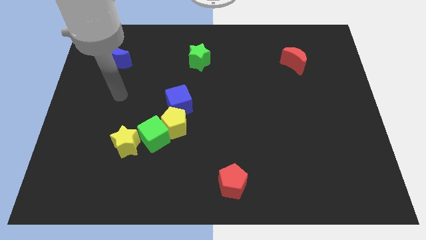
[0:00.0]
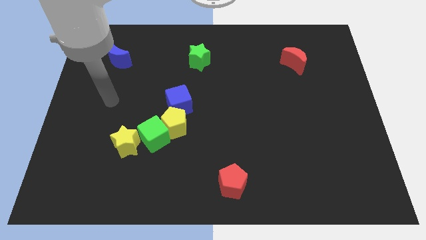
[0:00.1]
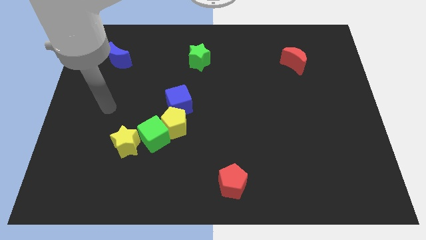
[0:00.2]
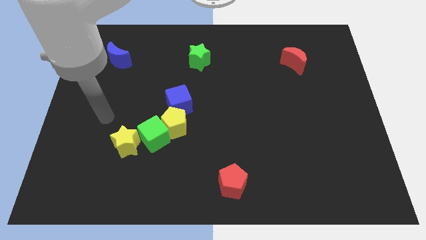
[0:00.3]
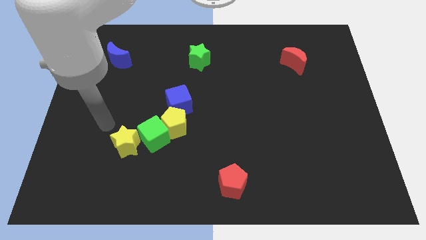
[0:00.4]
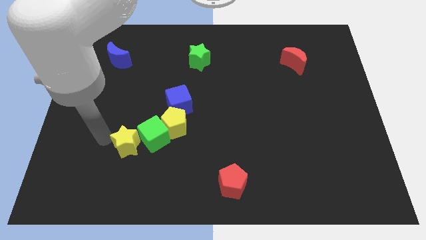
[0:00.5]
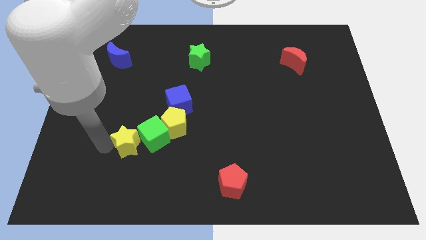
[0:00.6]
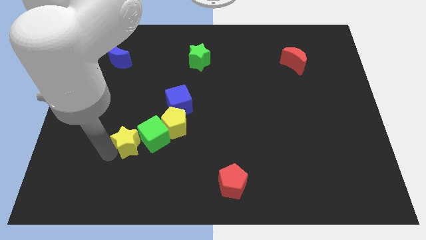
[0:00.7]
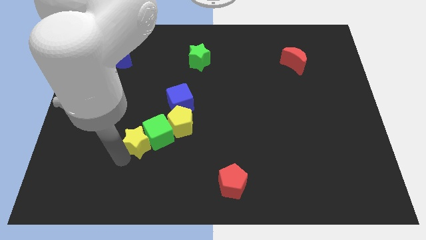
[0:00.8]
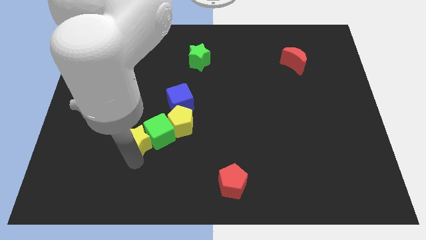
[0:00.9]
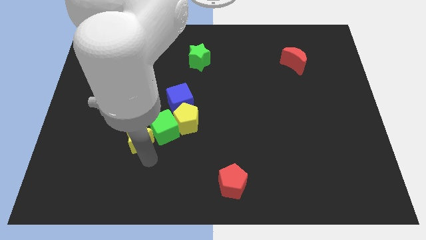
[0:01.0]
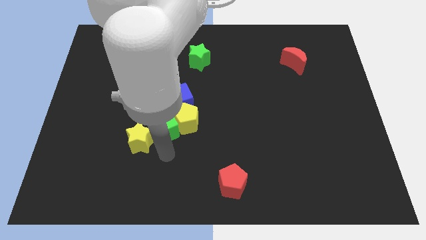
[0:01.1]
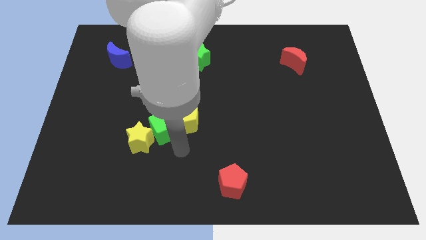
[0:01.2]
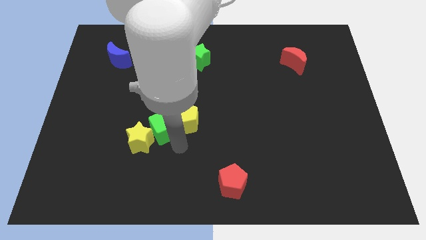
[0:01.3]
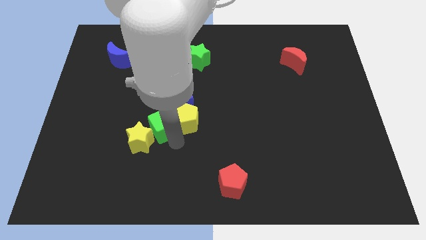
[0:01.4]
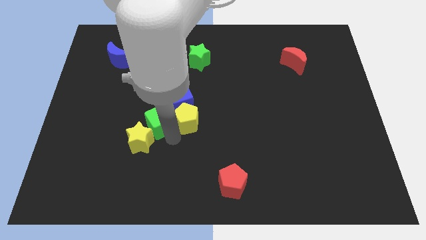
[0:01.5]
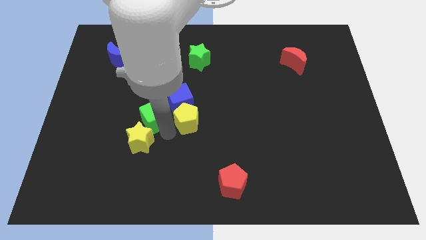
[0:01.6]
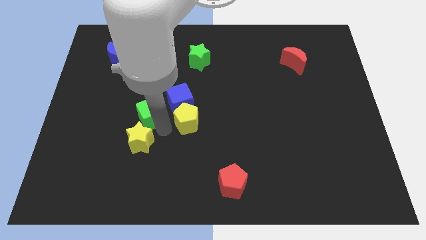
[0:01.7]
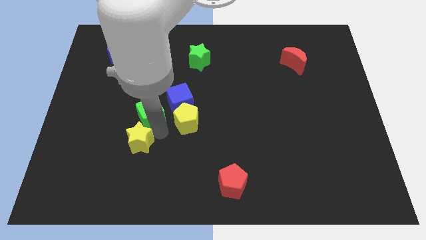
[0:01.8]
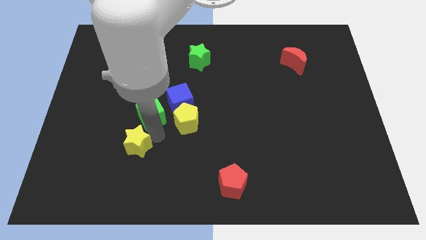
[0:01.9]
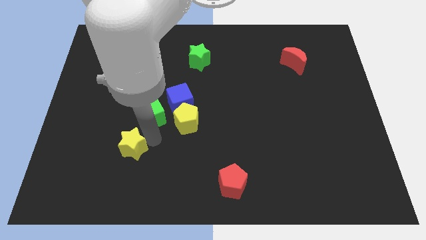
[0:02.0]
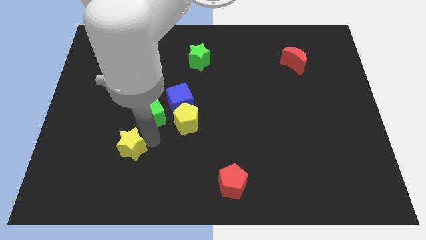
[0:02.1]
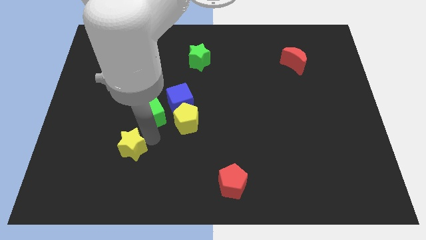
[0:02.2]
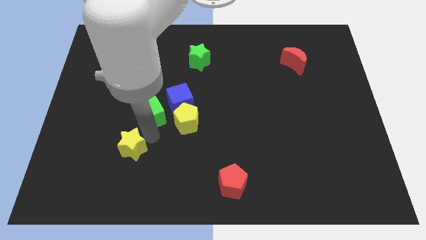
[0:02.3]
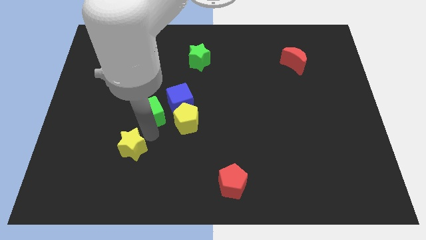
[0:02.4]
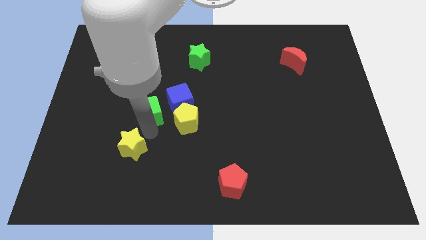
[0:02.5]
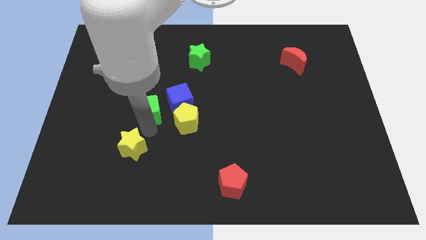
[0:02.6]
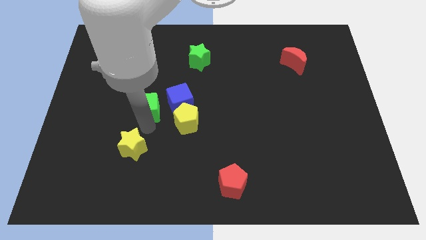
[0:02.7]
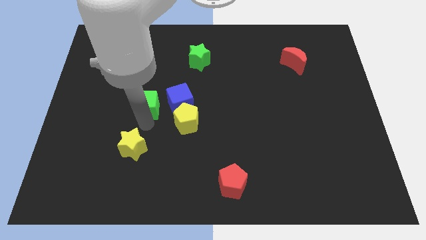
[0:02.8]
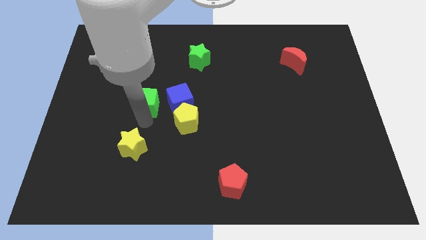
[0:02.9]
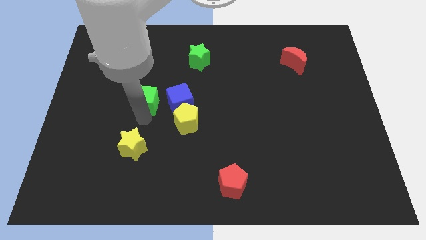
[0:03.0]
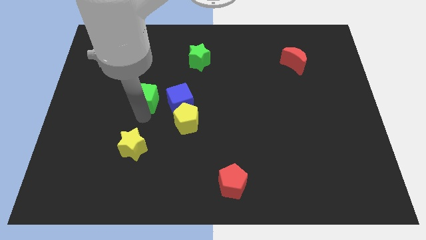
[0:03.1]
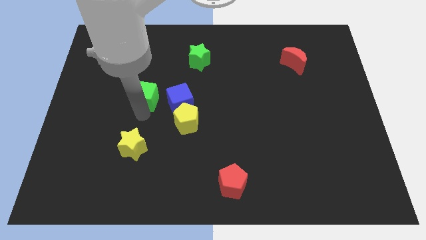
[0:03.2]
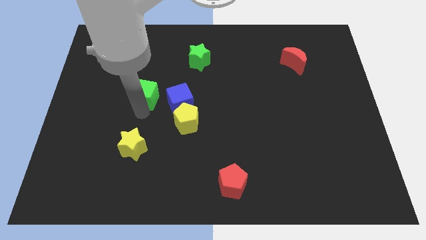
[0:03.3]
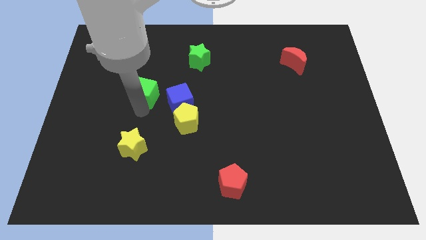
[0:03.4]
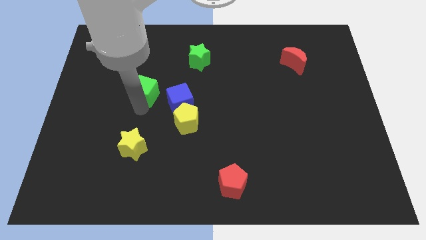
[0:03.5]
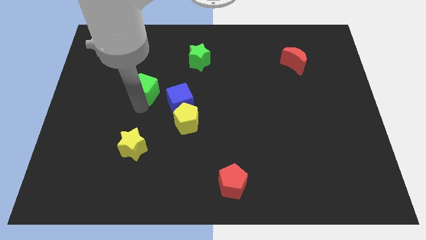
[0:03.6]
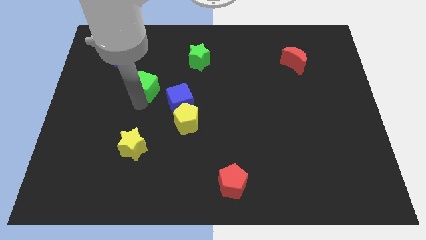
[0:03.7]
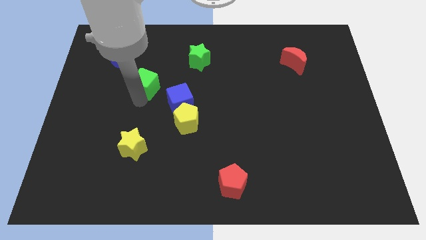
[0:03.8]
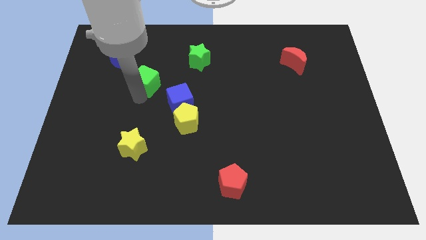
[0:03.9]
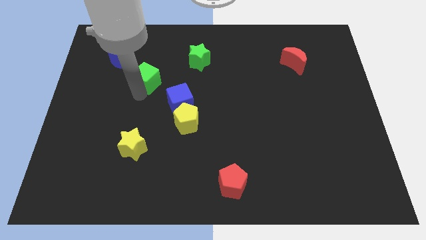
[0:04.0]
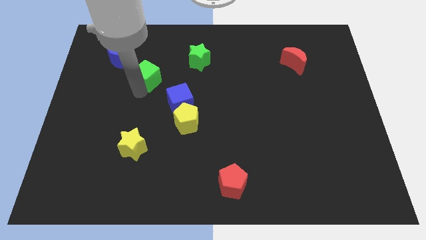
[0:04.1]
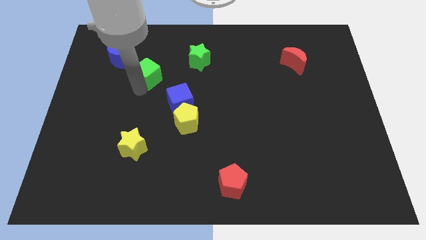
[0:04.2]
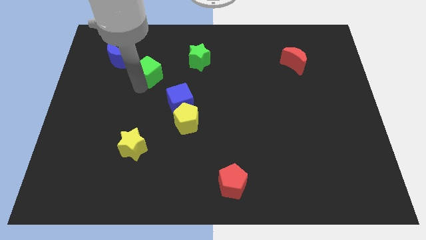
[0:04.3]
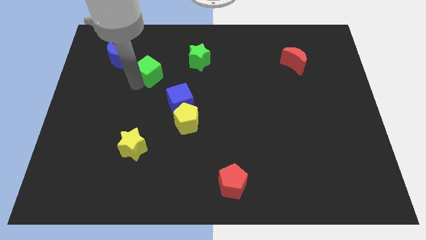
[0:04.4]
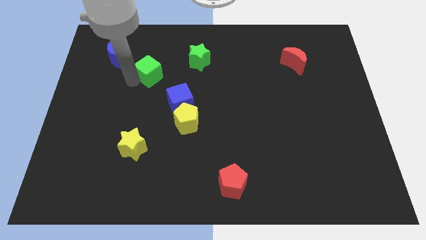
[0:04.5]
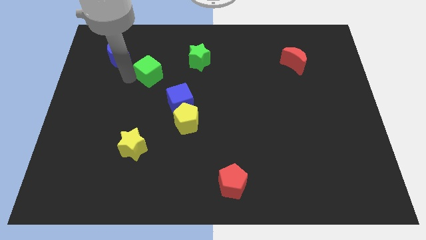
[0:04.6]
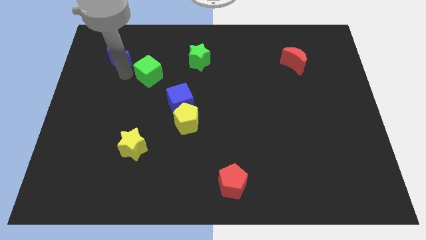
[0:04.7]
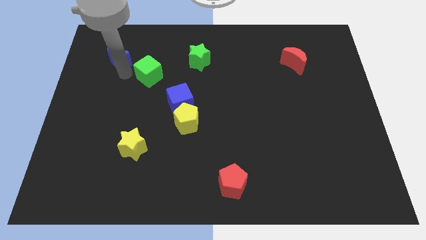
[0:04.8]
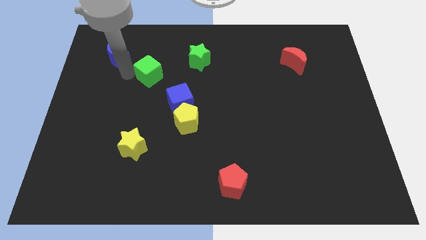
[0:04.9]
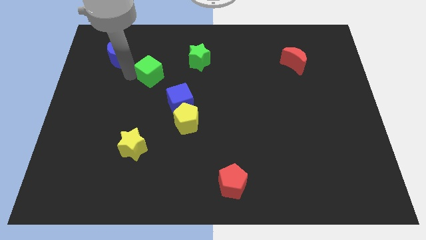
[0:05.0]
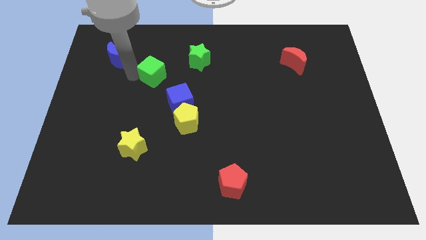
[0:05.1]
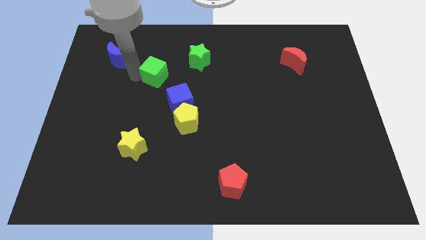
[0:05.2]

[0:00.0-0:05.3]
put the green cube to the bottom left of the green star

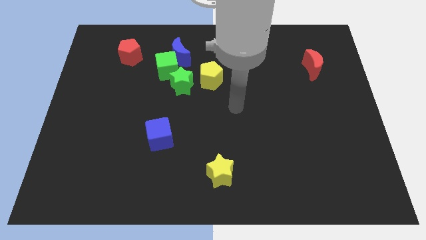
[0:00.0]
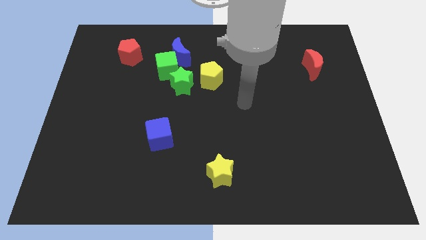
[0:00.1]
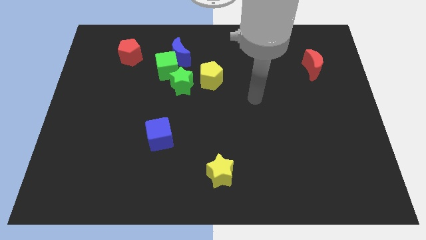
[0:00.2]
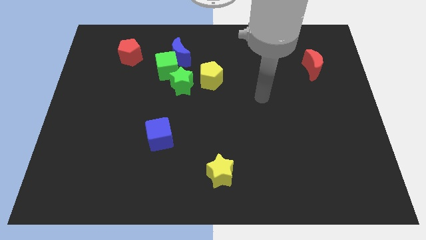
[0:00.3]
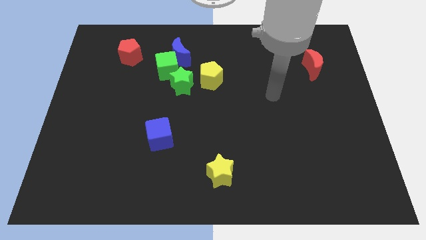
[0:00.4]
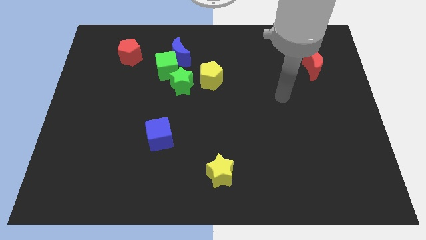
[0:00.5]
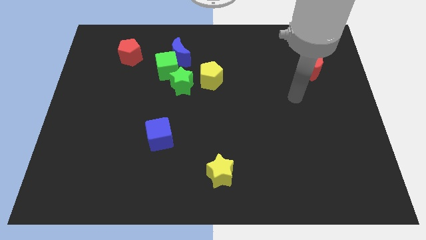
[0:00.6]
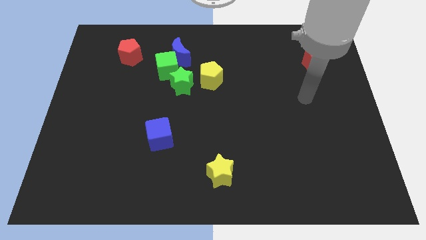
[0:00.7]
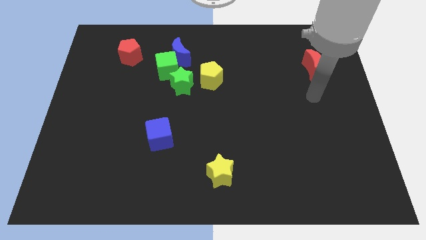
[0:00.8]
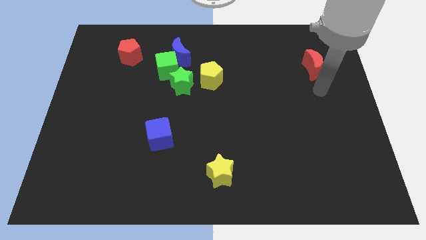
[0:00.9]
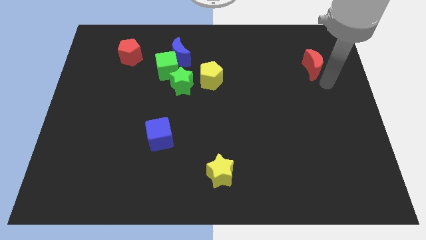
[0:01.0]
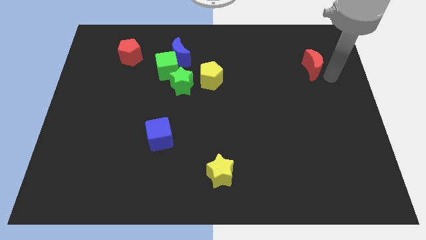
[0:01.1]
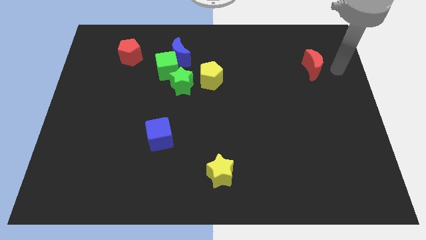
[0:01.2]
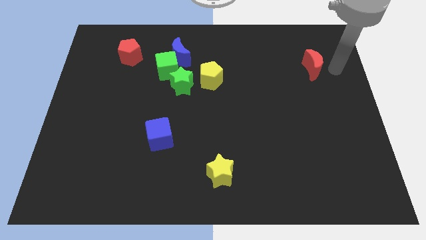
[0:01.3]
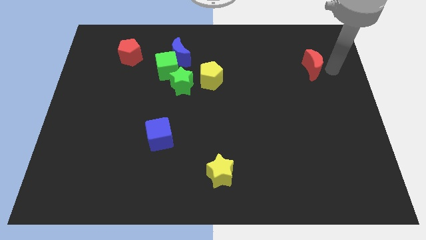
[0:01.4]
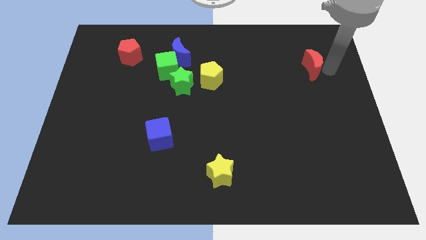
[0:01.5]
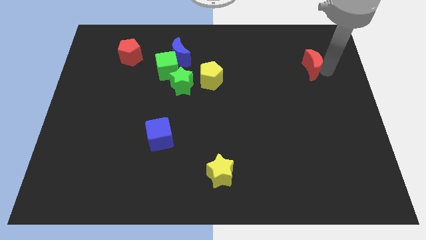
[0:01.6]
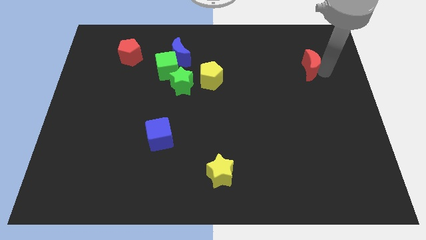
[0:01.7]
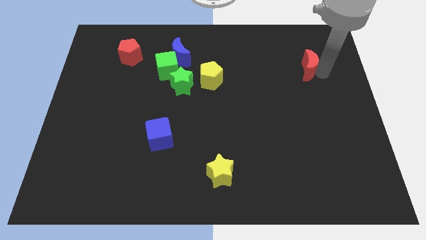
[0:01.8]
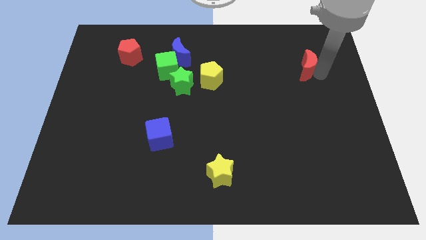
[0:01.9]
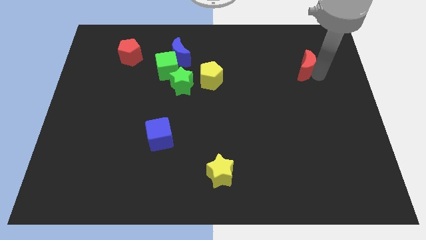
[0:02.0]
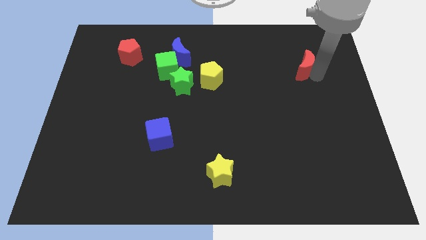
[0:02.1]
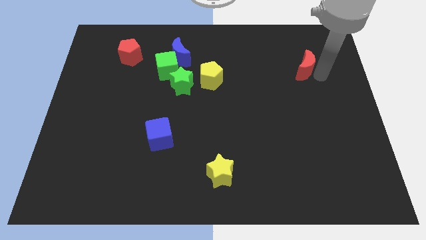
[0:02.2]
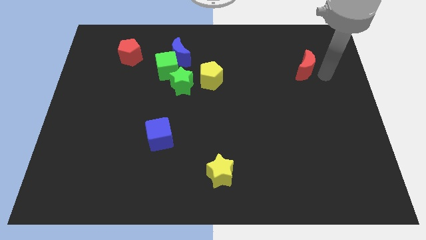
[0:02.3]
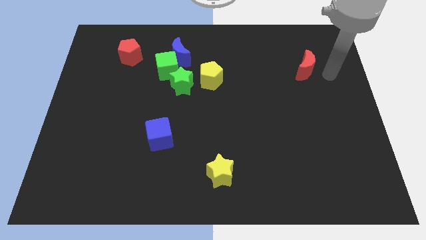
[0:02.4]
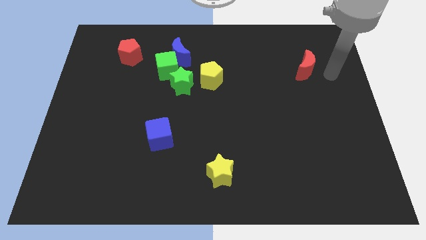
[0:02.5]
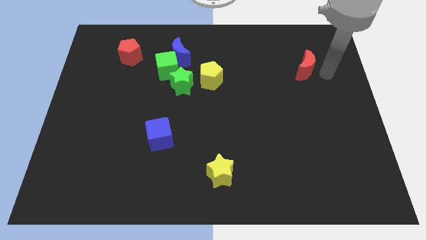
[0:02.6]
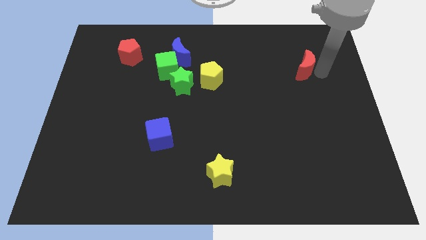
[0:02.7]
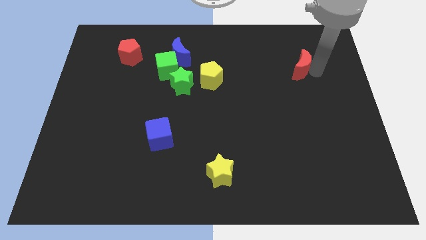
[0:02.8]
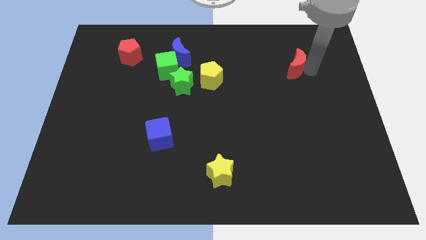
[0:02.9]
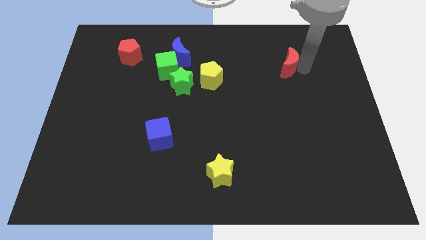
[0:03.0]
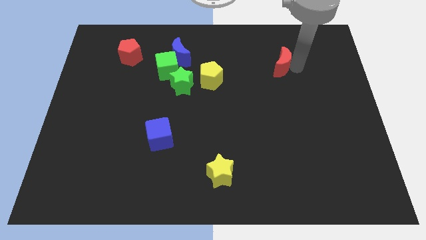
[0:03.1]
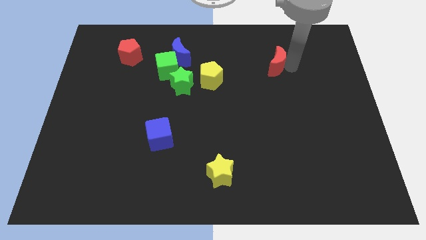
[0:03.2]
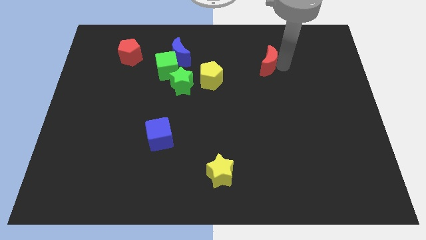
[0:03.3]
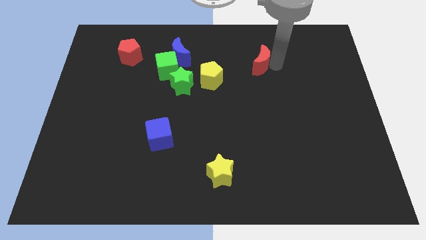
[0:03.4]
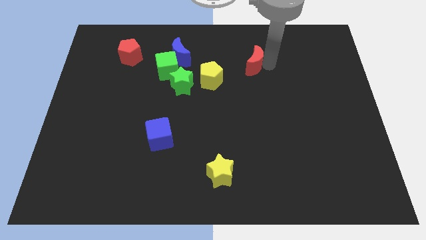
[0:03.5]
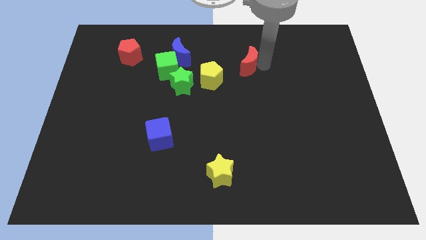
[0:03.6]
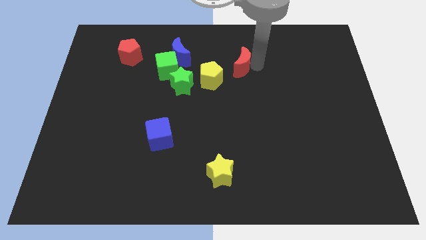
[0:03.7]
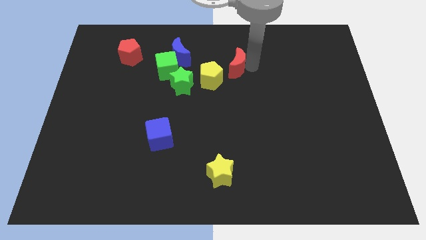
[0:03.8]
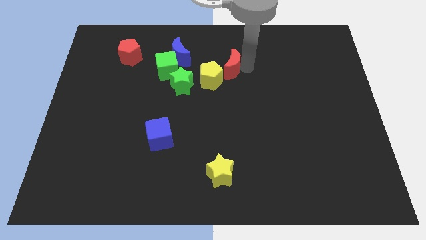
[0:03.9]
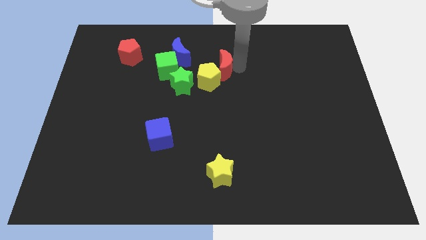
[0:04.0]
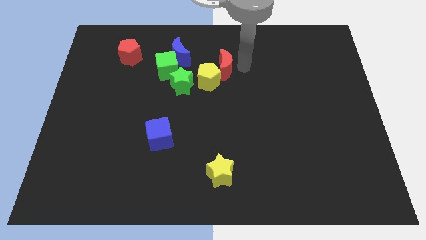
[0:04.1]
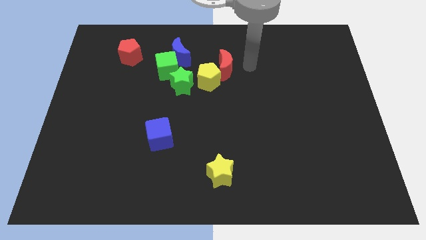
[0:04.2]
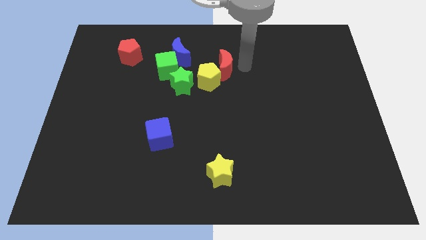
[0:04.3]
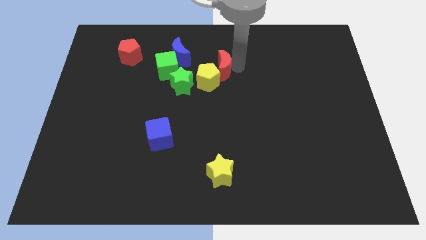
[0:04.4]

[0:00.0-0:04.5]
slide the red moon diagonally up and to the right of the green star
